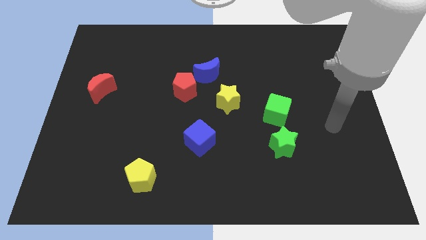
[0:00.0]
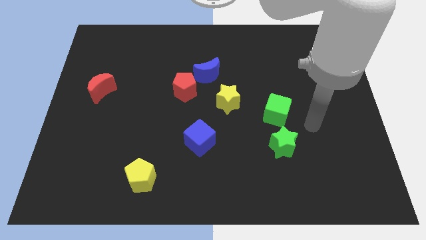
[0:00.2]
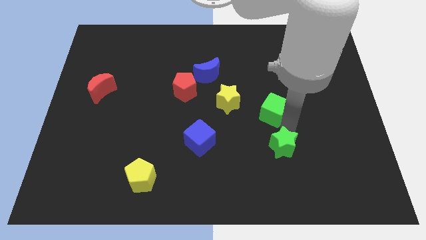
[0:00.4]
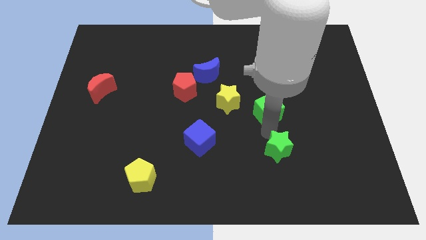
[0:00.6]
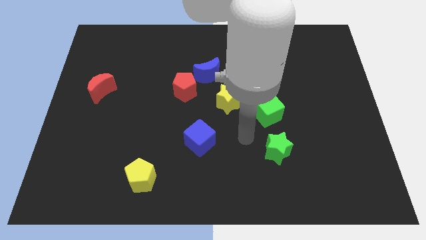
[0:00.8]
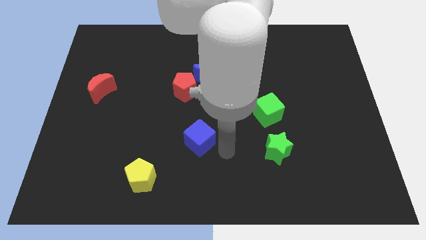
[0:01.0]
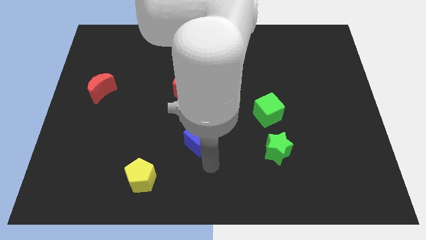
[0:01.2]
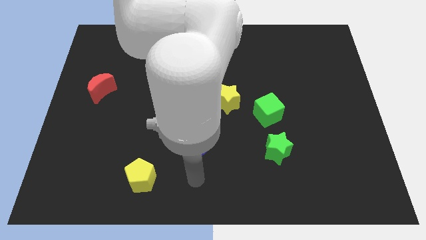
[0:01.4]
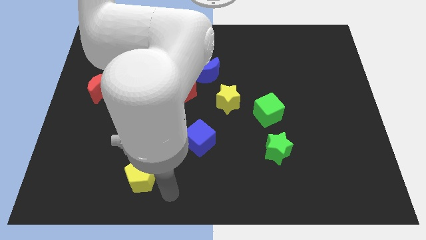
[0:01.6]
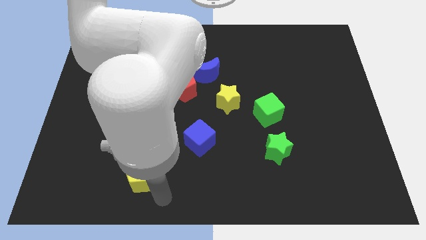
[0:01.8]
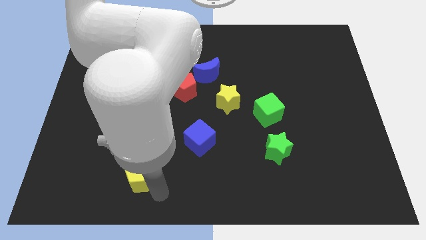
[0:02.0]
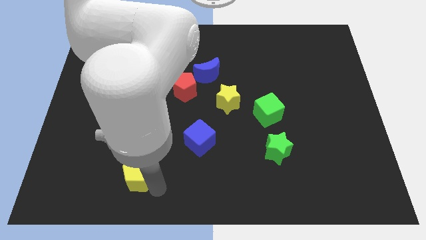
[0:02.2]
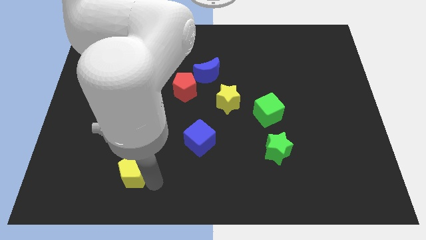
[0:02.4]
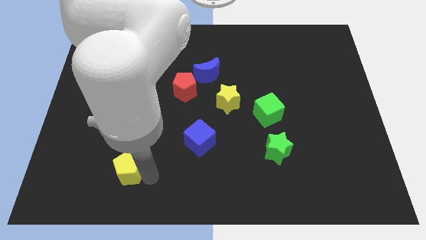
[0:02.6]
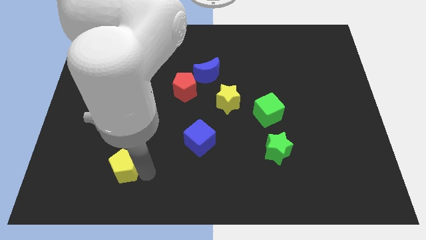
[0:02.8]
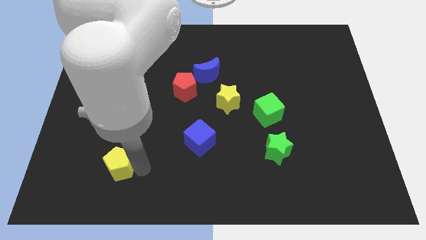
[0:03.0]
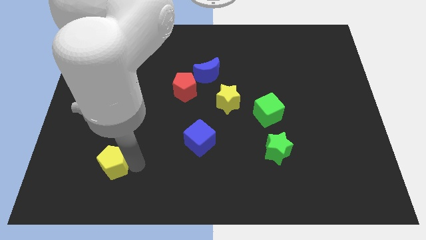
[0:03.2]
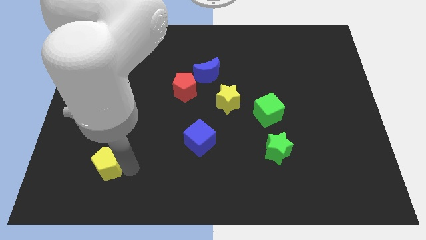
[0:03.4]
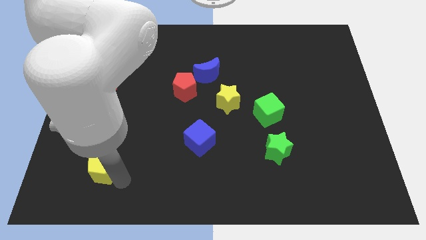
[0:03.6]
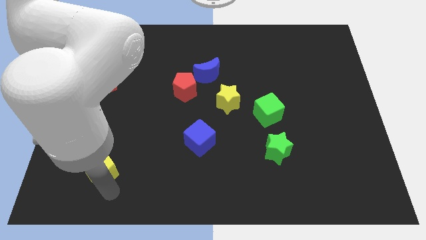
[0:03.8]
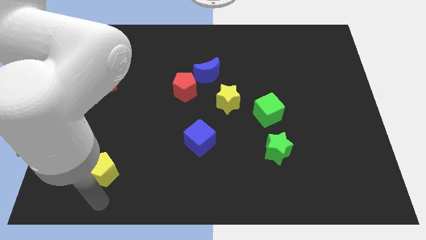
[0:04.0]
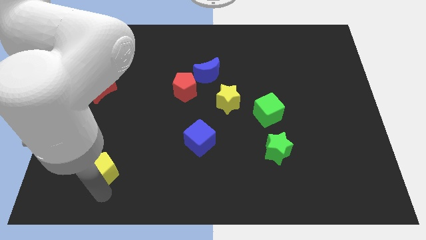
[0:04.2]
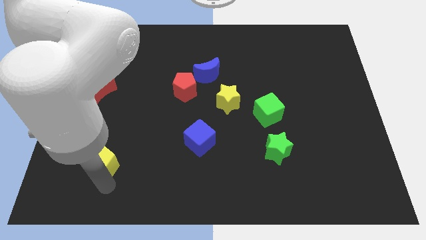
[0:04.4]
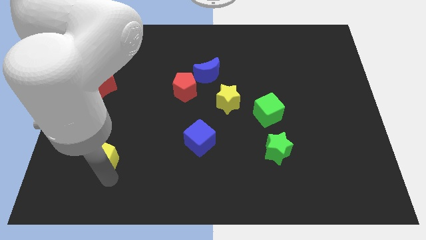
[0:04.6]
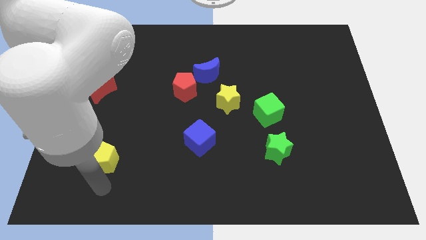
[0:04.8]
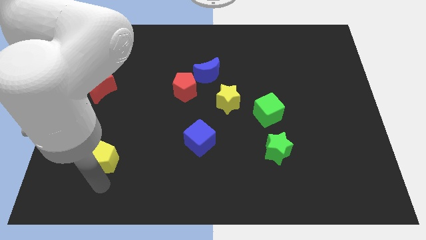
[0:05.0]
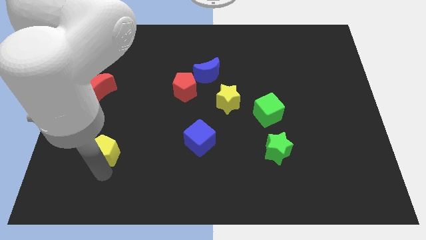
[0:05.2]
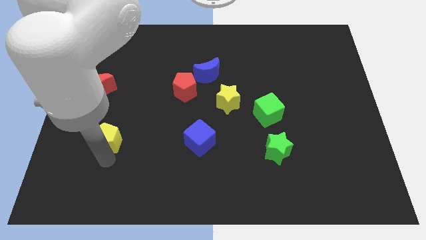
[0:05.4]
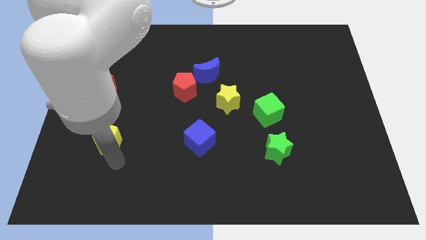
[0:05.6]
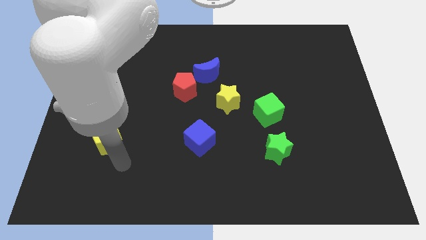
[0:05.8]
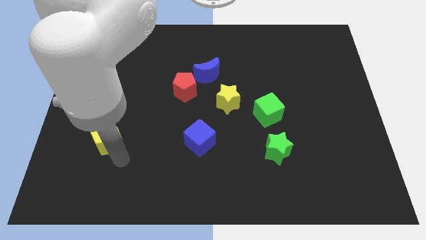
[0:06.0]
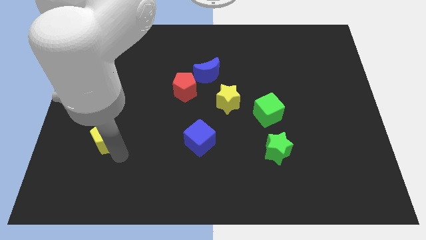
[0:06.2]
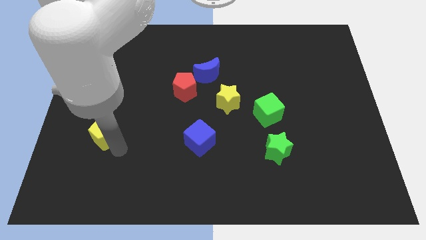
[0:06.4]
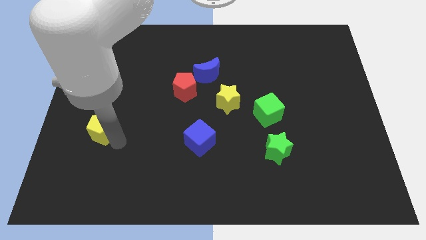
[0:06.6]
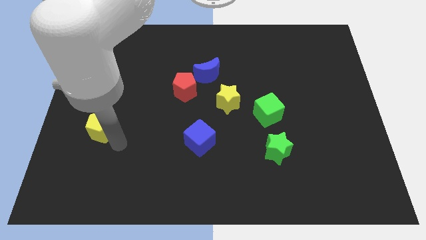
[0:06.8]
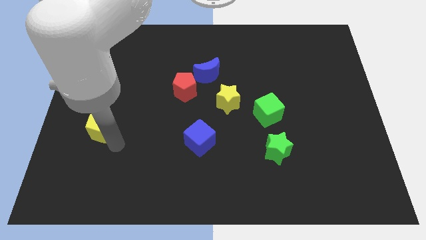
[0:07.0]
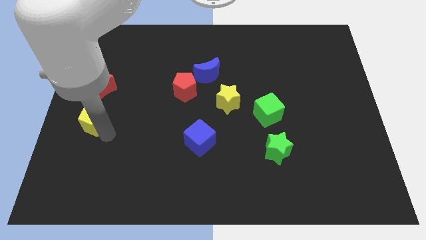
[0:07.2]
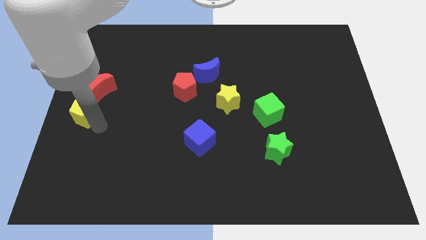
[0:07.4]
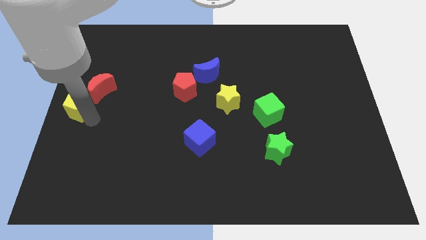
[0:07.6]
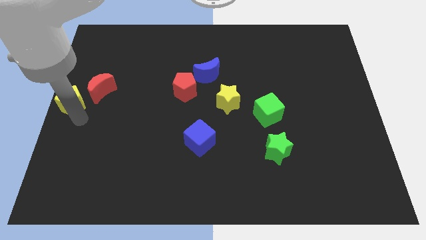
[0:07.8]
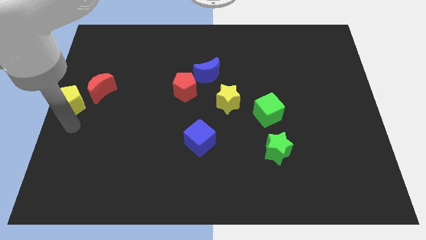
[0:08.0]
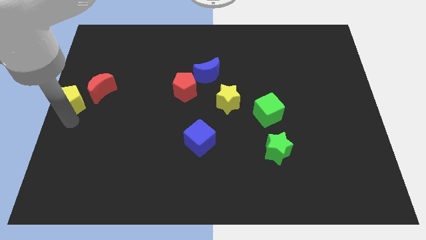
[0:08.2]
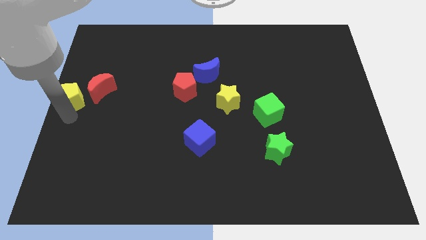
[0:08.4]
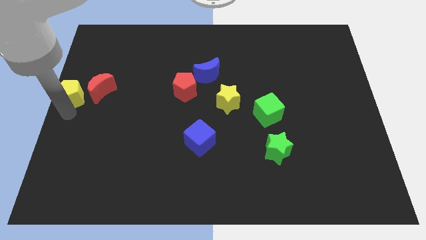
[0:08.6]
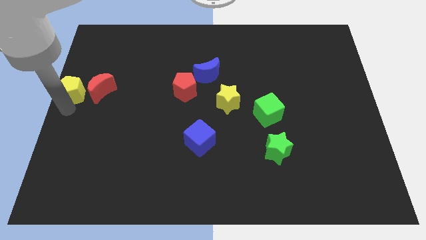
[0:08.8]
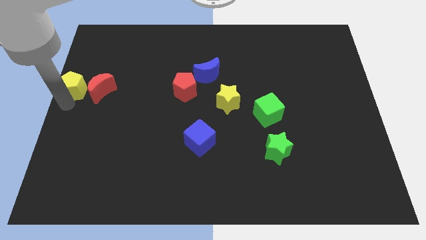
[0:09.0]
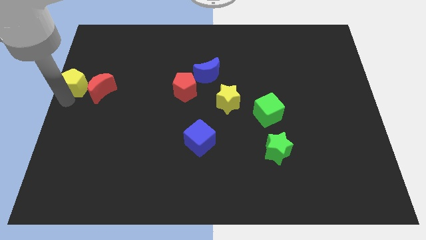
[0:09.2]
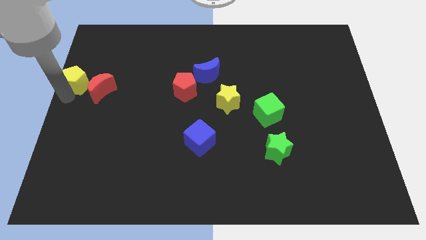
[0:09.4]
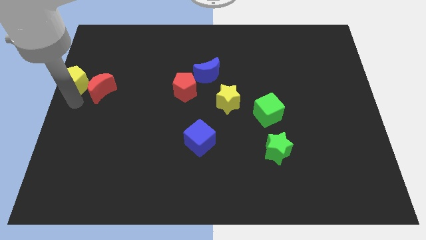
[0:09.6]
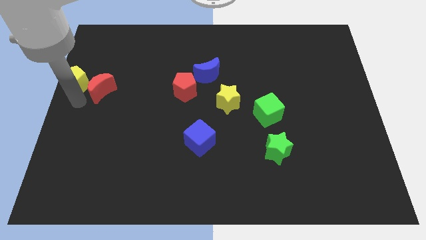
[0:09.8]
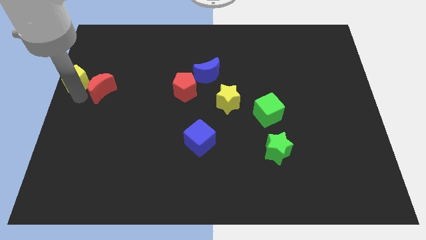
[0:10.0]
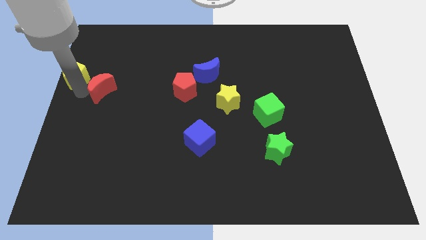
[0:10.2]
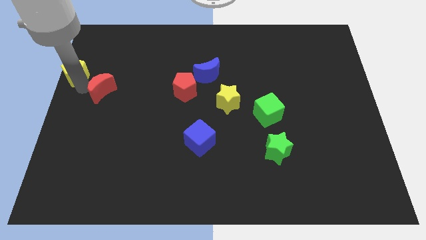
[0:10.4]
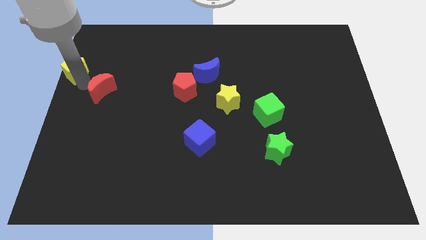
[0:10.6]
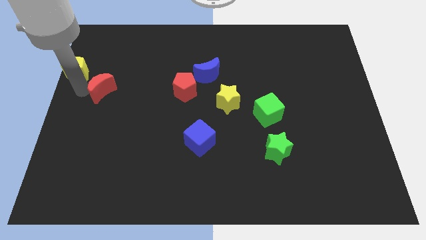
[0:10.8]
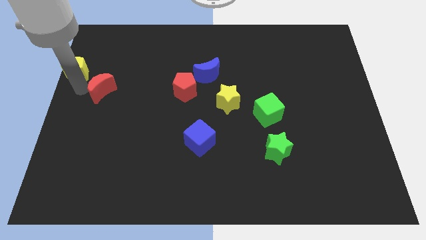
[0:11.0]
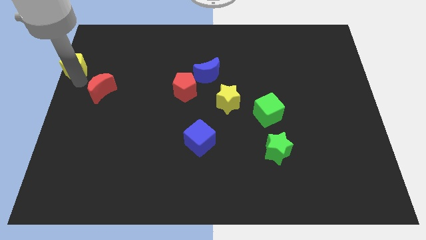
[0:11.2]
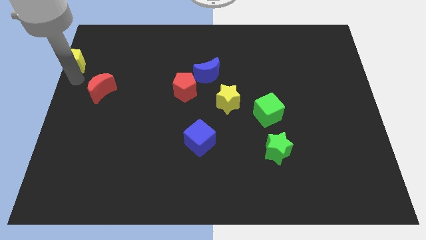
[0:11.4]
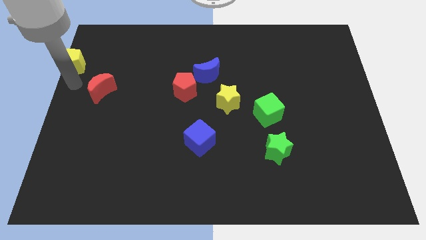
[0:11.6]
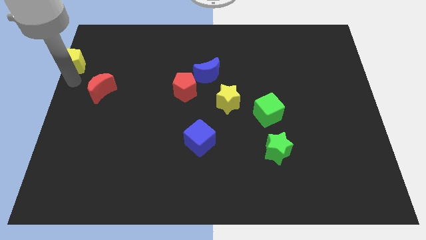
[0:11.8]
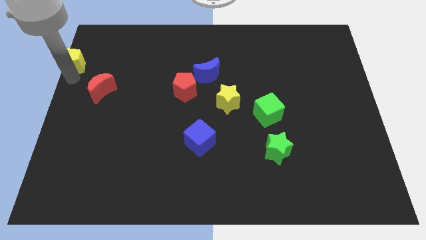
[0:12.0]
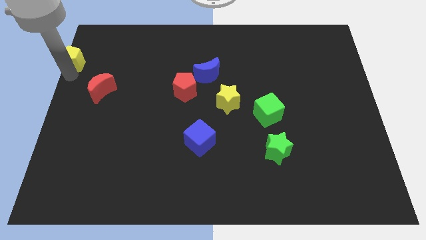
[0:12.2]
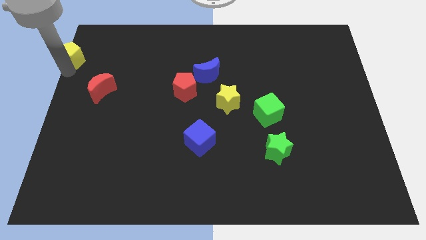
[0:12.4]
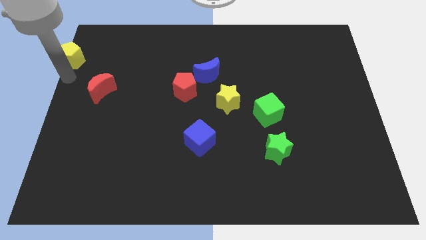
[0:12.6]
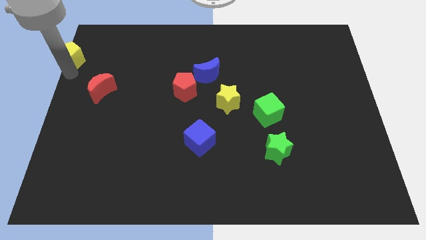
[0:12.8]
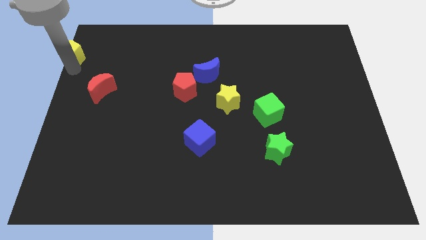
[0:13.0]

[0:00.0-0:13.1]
put the yellow pentagon to the top left of the board

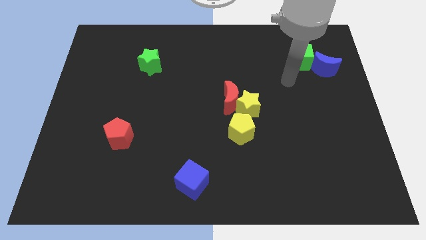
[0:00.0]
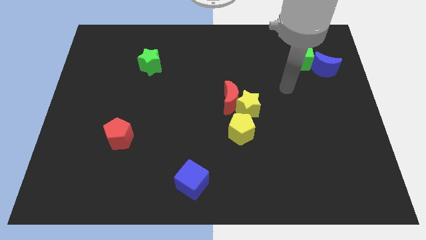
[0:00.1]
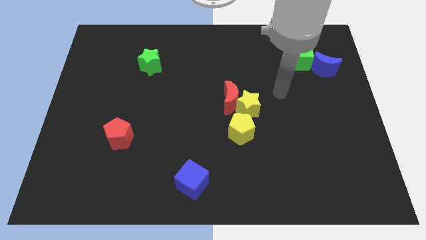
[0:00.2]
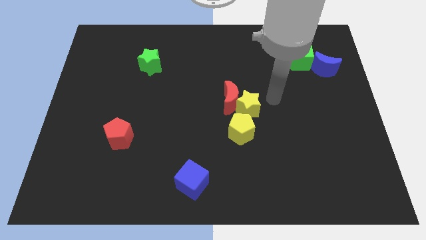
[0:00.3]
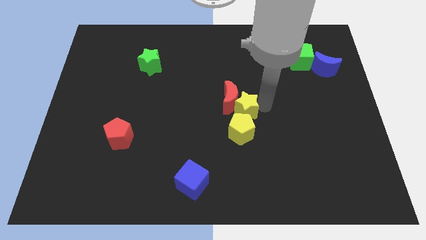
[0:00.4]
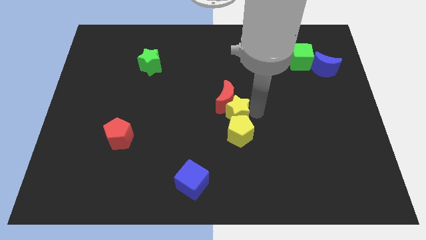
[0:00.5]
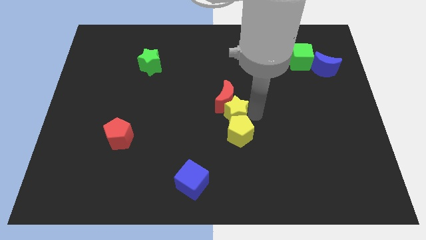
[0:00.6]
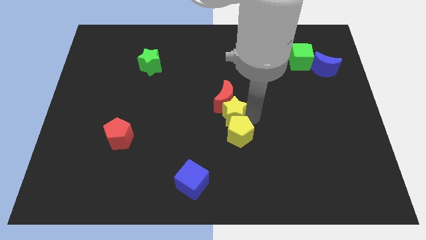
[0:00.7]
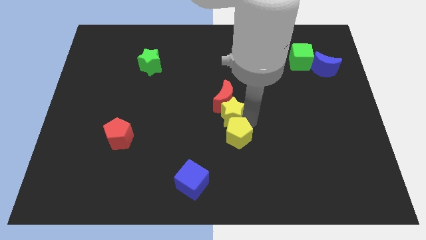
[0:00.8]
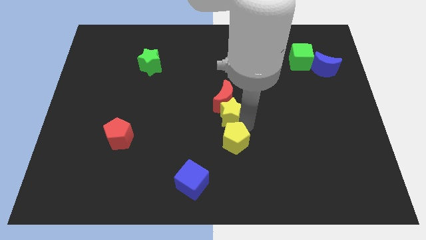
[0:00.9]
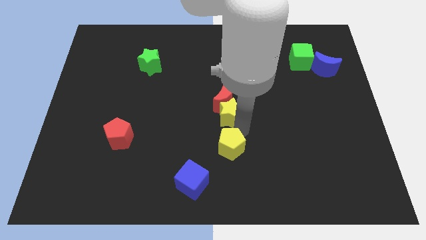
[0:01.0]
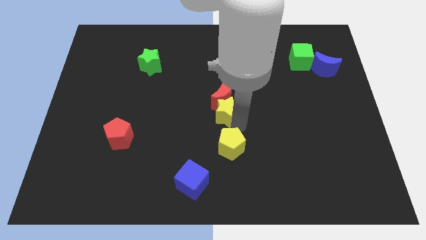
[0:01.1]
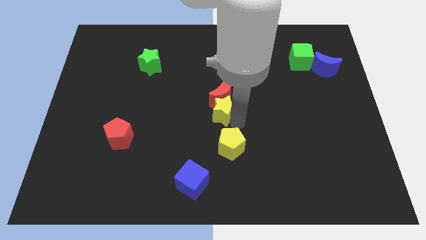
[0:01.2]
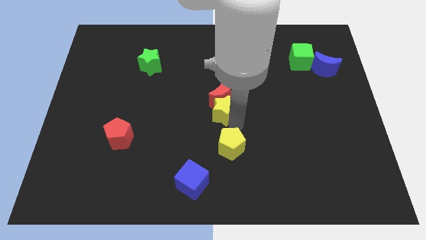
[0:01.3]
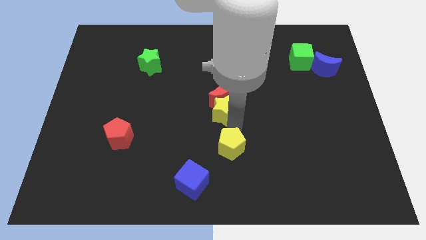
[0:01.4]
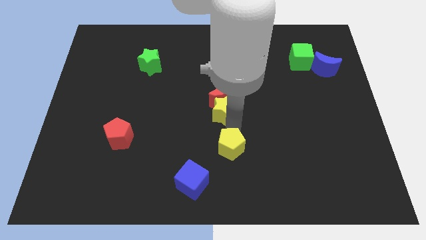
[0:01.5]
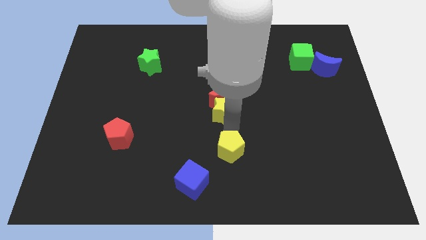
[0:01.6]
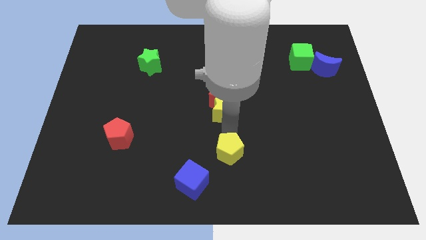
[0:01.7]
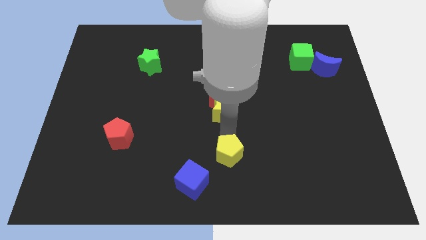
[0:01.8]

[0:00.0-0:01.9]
push the yellow pentagon to the bottom
